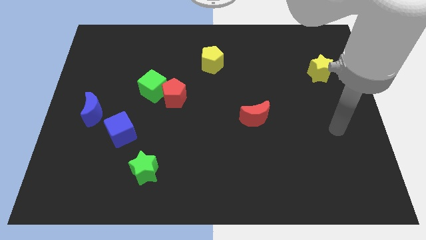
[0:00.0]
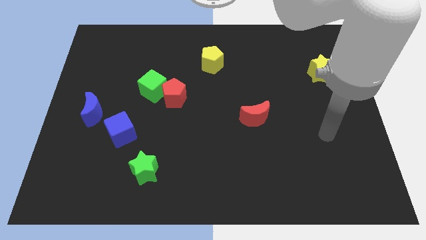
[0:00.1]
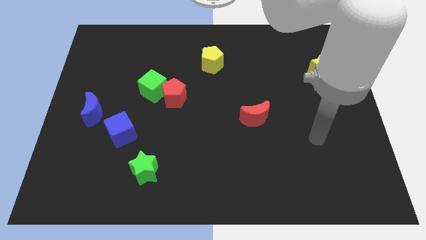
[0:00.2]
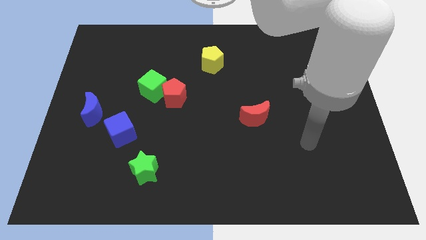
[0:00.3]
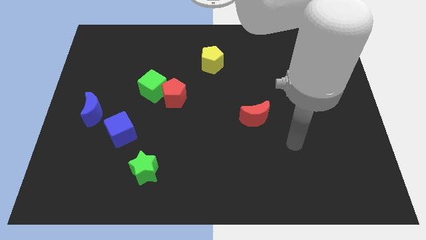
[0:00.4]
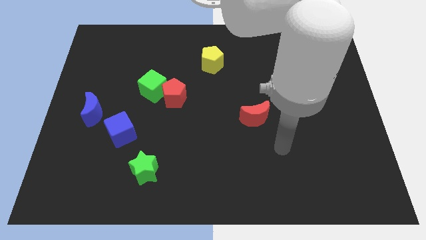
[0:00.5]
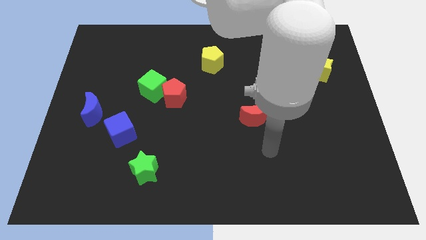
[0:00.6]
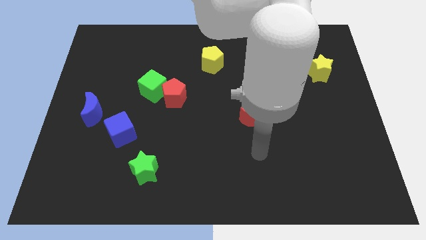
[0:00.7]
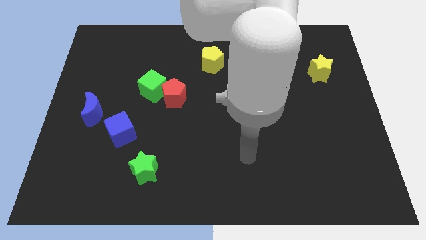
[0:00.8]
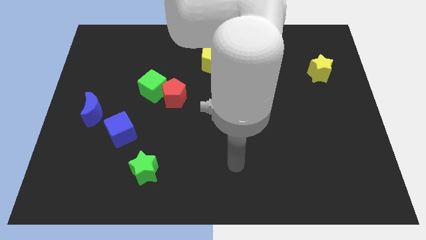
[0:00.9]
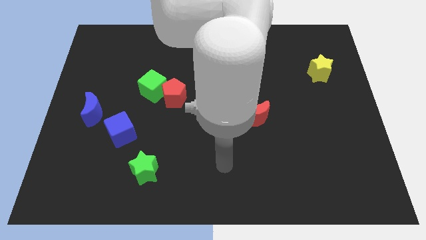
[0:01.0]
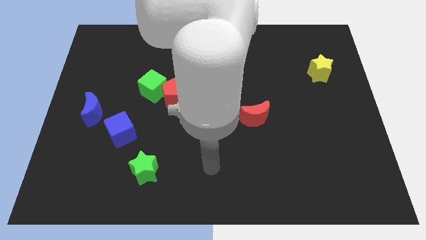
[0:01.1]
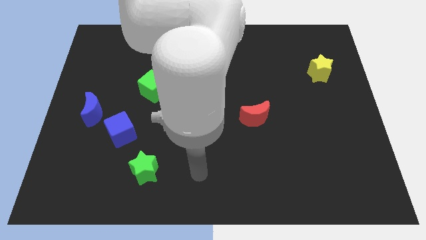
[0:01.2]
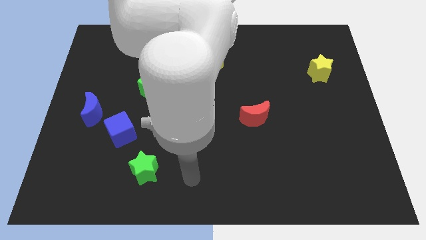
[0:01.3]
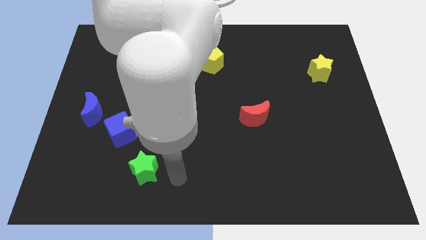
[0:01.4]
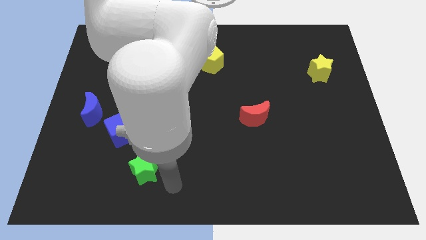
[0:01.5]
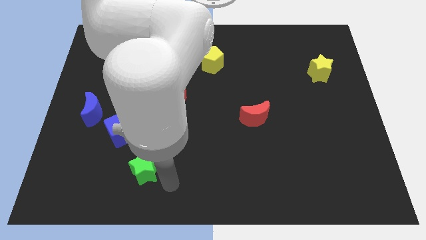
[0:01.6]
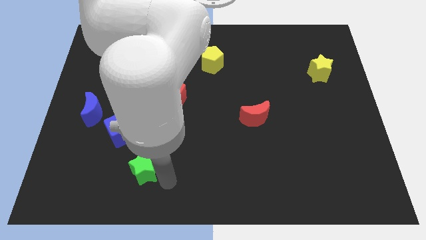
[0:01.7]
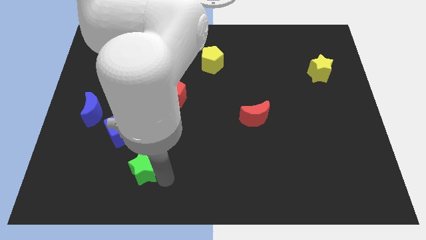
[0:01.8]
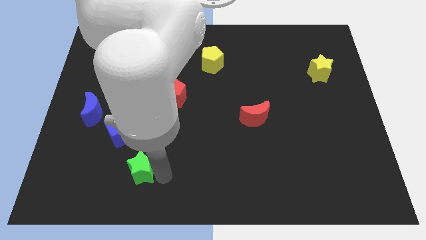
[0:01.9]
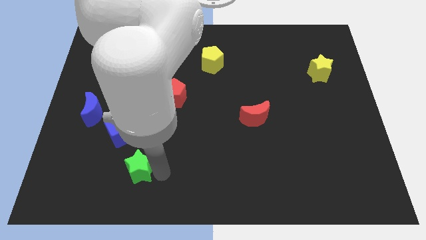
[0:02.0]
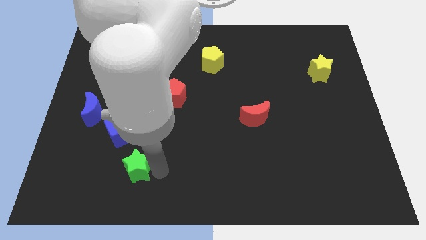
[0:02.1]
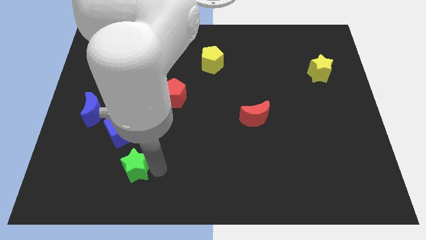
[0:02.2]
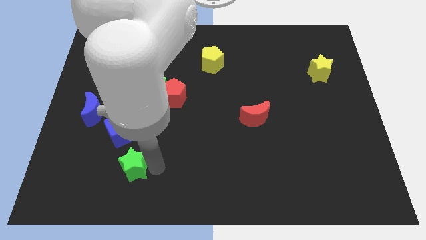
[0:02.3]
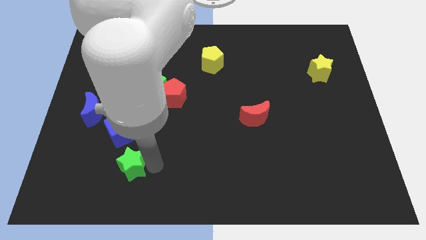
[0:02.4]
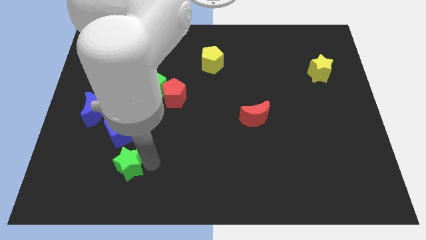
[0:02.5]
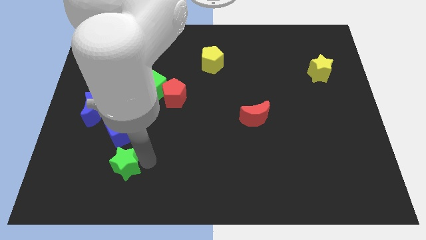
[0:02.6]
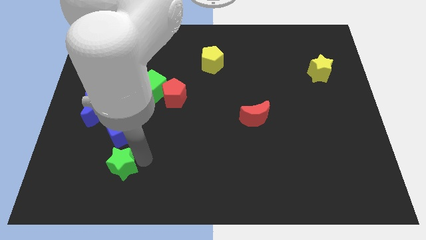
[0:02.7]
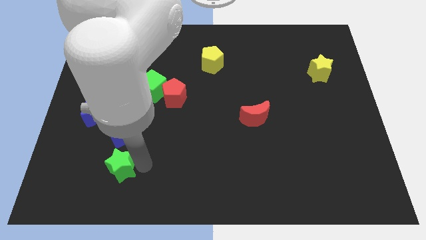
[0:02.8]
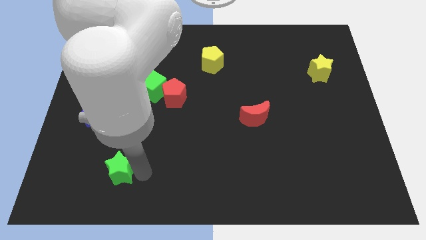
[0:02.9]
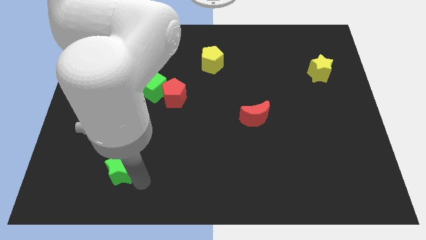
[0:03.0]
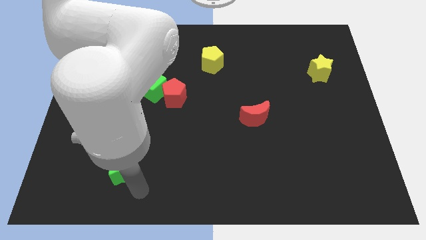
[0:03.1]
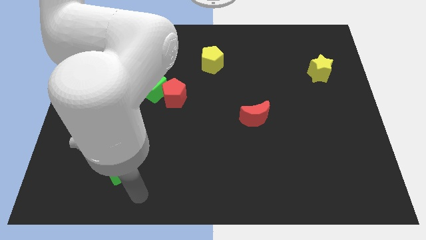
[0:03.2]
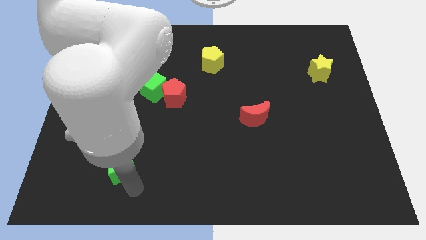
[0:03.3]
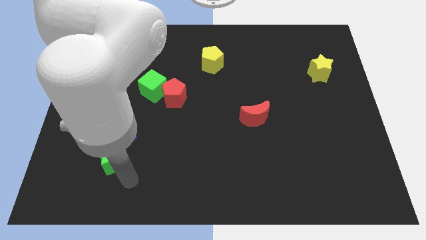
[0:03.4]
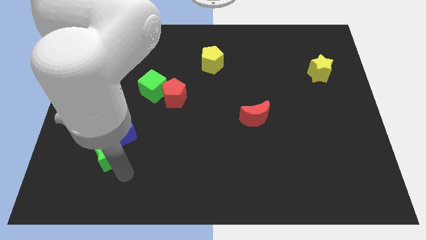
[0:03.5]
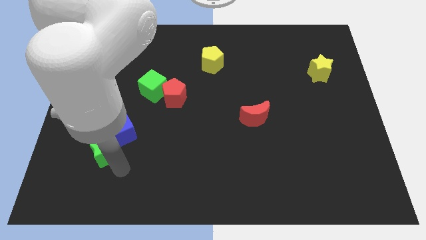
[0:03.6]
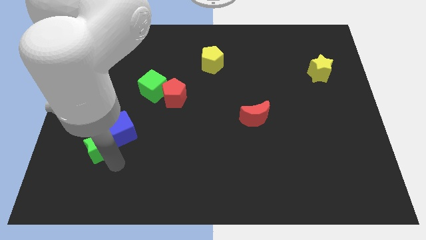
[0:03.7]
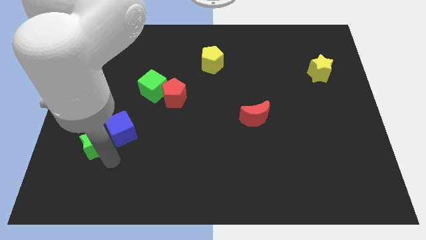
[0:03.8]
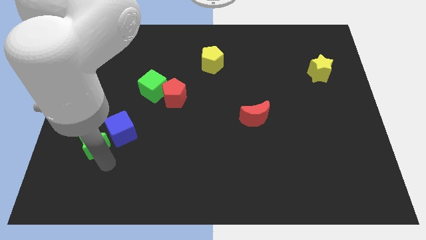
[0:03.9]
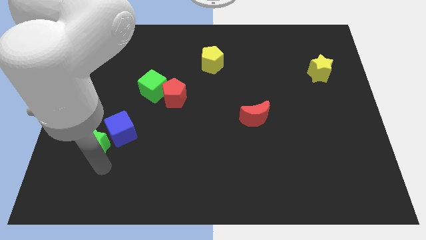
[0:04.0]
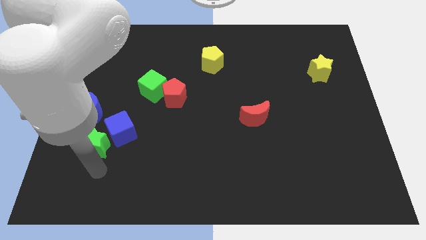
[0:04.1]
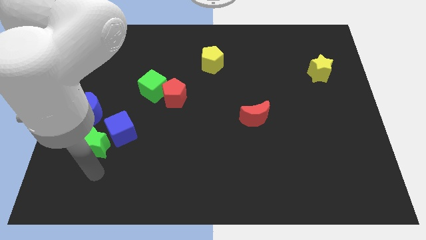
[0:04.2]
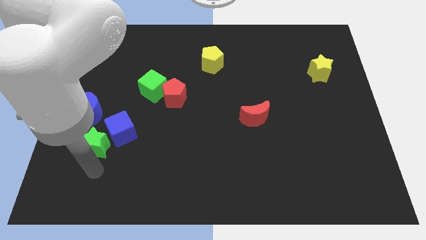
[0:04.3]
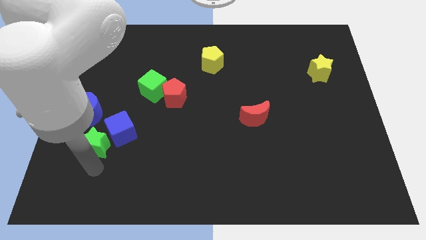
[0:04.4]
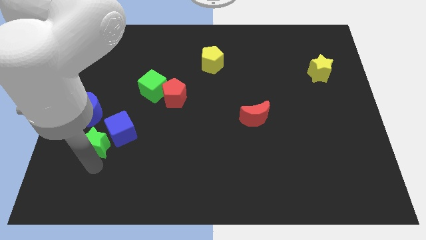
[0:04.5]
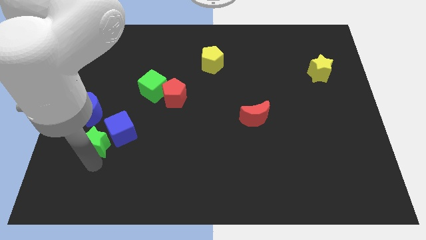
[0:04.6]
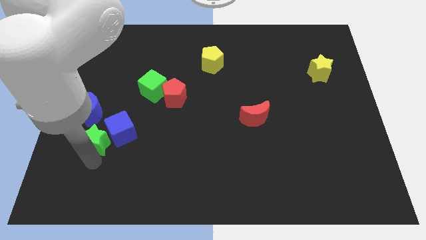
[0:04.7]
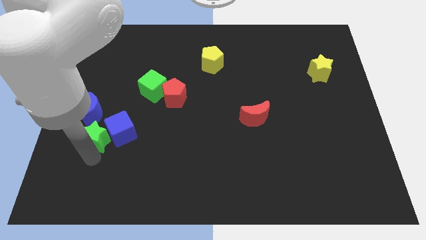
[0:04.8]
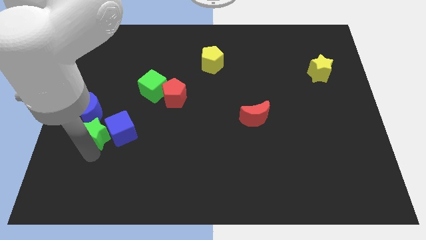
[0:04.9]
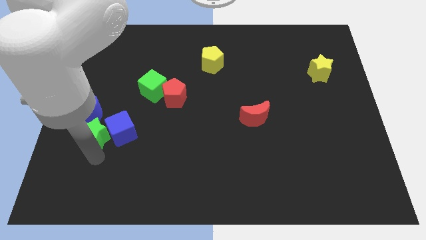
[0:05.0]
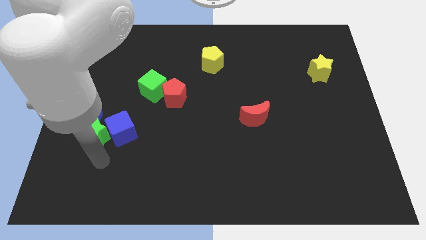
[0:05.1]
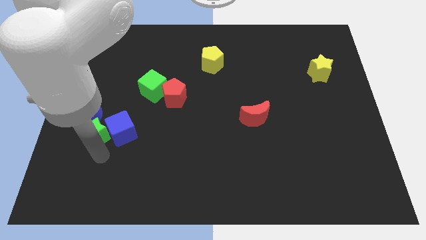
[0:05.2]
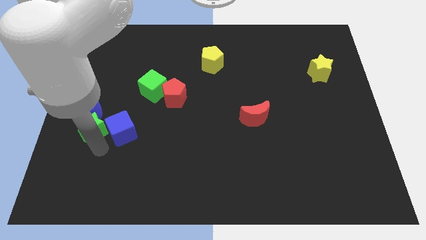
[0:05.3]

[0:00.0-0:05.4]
slide the green star close to the blue moon

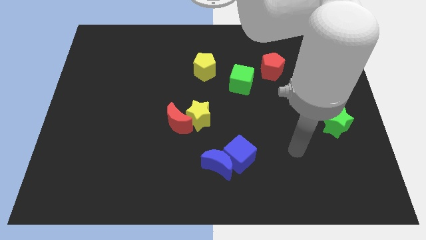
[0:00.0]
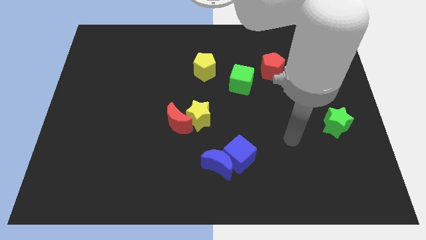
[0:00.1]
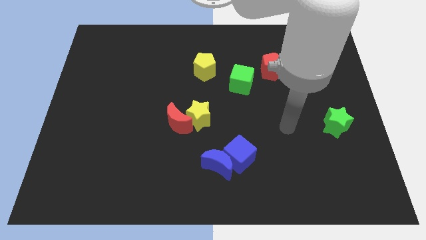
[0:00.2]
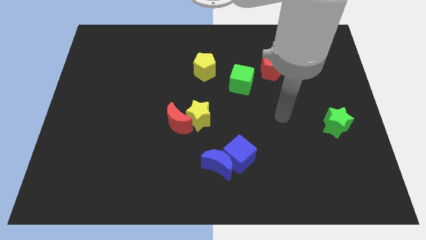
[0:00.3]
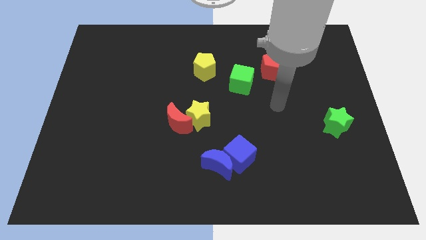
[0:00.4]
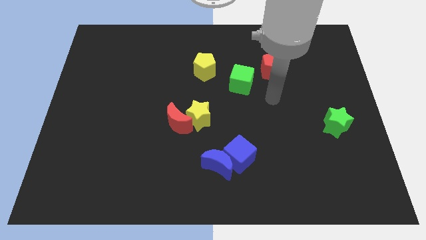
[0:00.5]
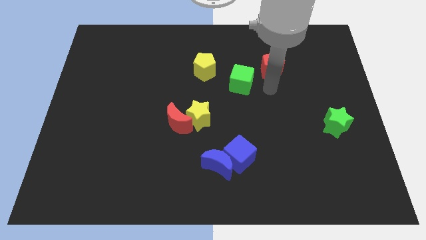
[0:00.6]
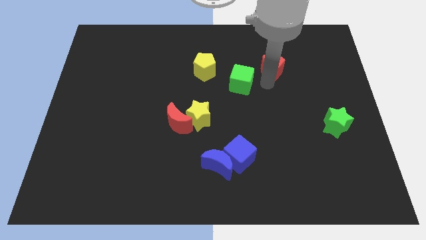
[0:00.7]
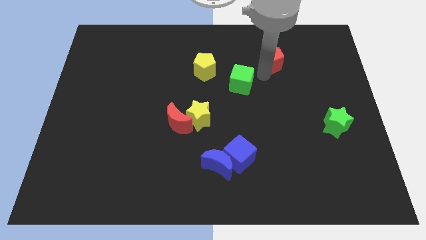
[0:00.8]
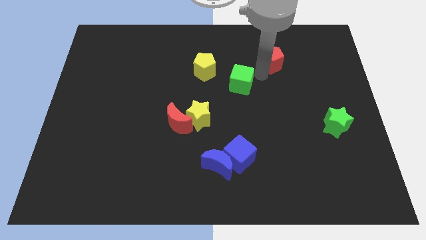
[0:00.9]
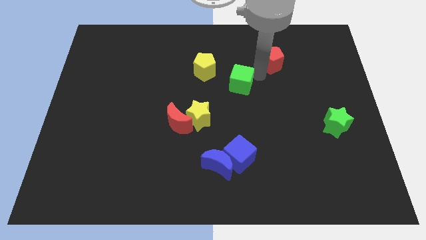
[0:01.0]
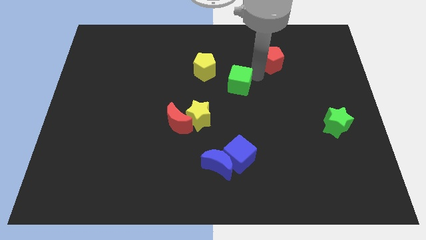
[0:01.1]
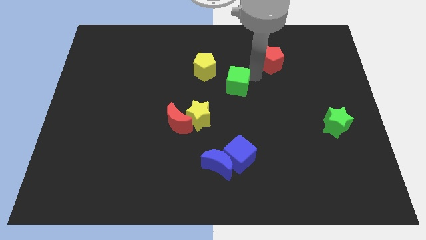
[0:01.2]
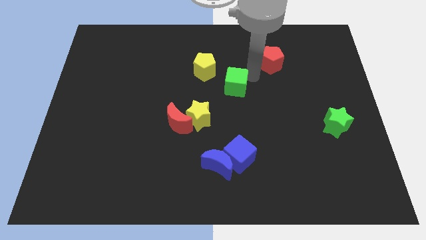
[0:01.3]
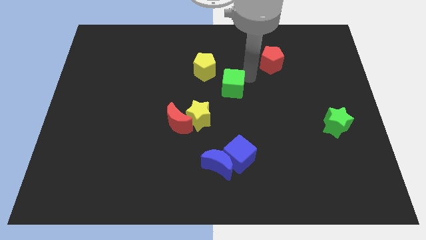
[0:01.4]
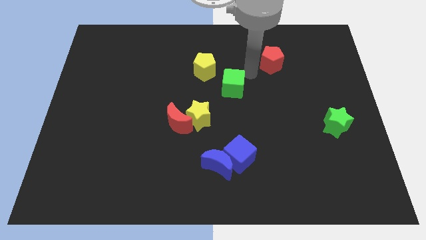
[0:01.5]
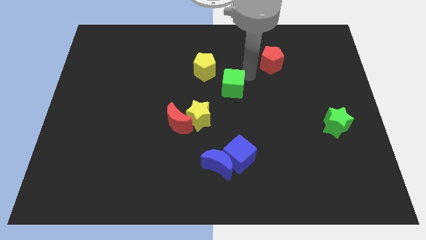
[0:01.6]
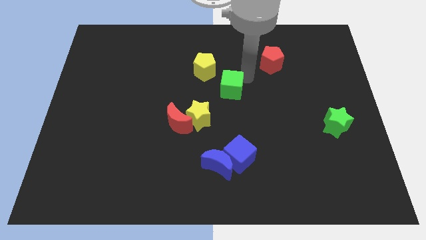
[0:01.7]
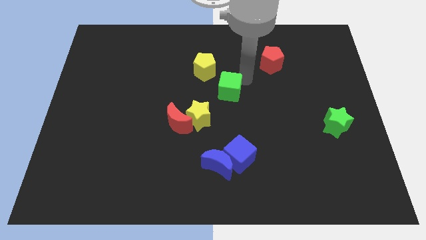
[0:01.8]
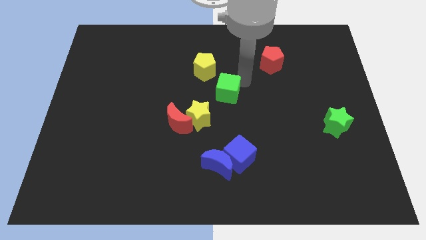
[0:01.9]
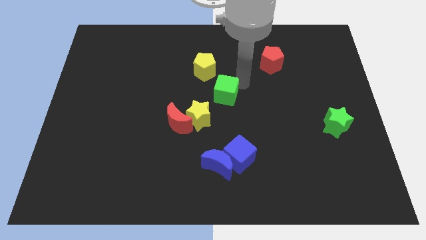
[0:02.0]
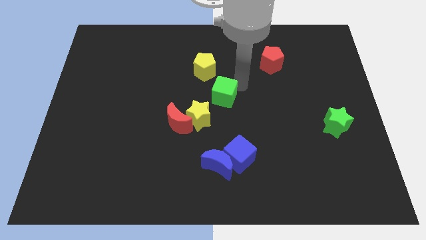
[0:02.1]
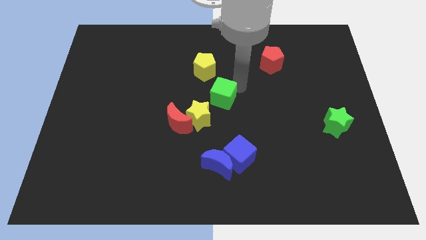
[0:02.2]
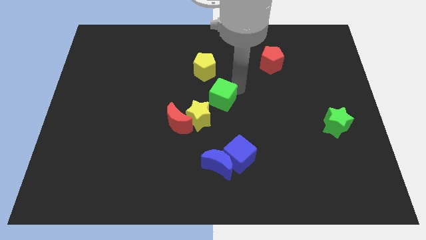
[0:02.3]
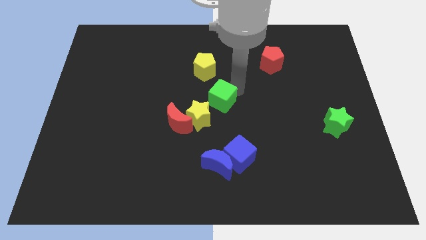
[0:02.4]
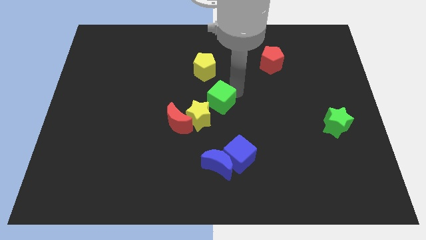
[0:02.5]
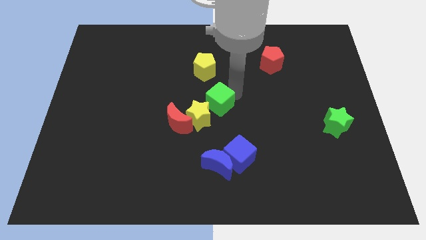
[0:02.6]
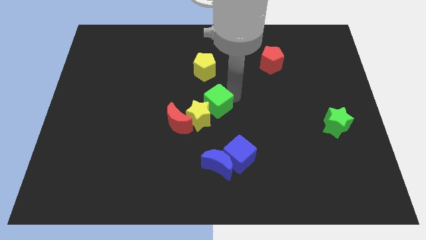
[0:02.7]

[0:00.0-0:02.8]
move the green cube towards the yellow star

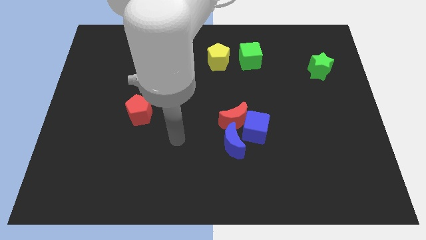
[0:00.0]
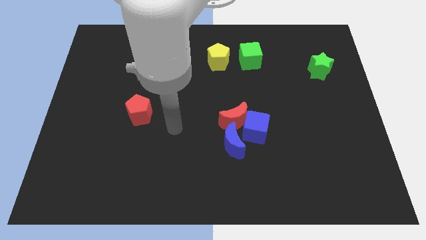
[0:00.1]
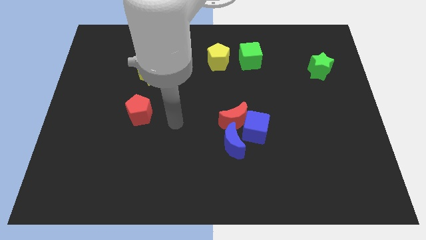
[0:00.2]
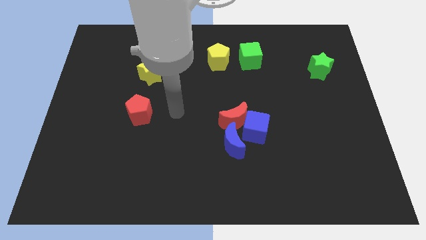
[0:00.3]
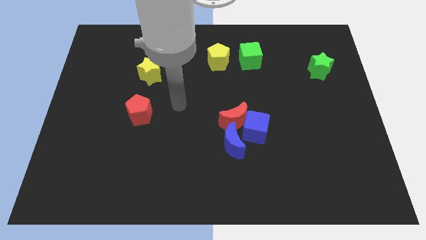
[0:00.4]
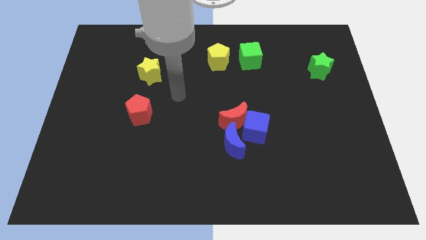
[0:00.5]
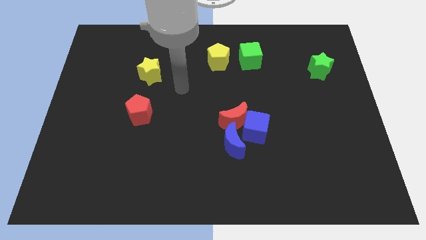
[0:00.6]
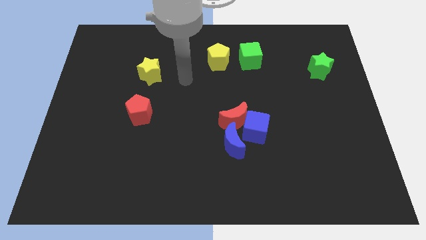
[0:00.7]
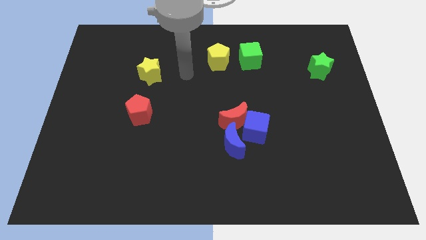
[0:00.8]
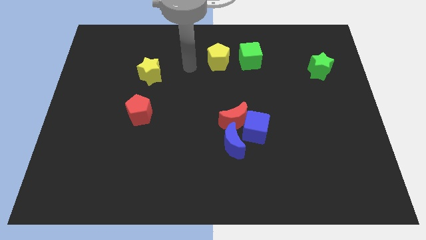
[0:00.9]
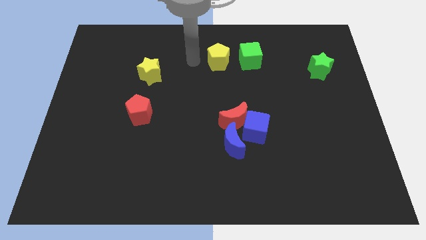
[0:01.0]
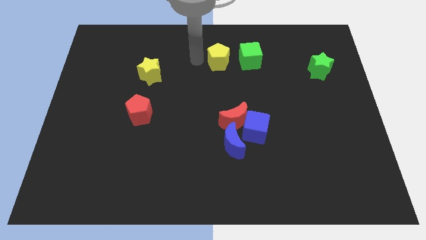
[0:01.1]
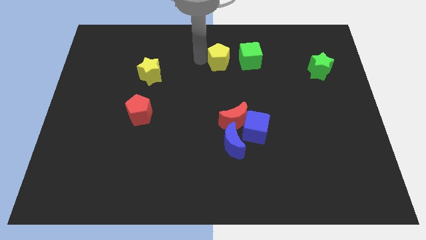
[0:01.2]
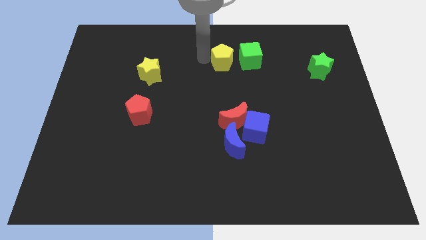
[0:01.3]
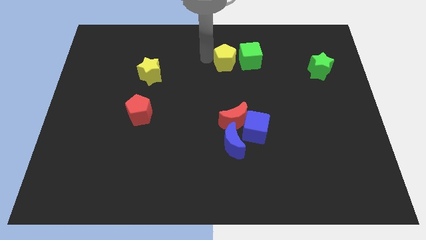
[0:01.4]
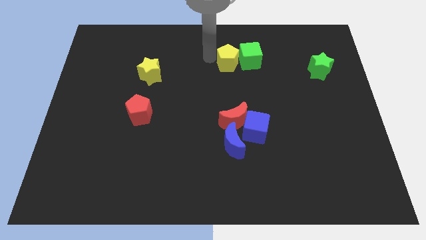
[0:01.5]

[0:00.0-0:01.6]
move the yellow pentagon close to the green cube
